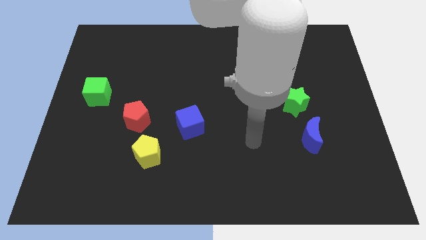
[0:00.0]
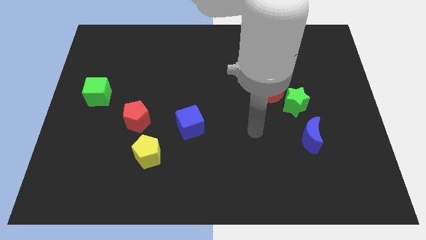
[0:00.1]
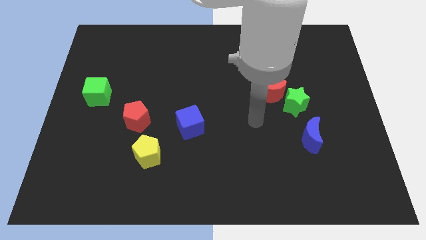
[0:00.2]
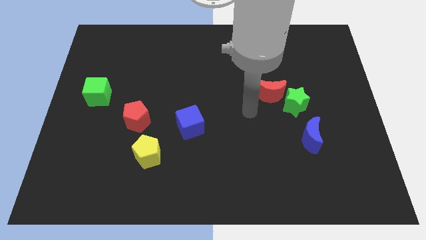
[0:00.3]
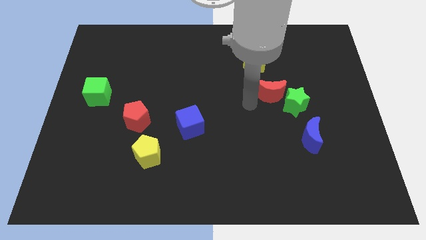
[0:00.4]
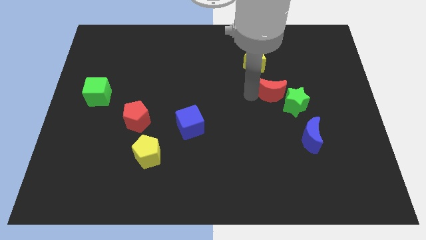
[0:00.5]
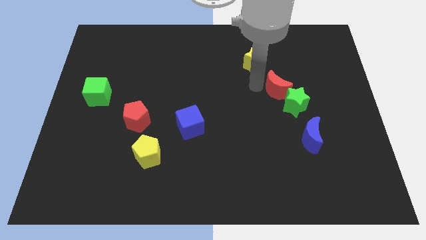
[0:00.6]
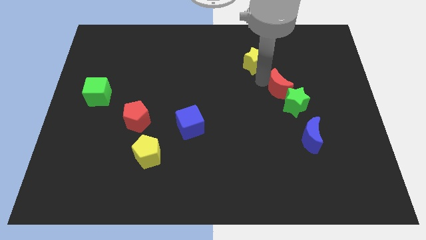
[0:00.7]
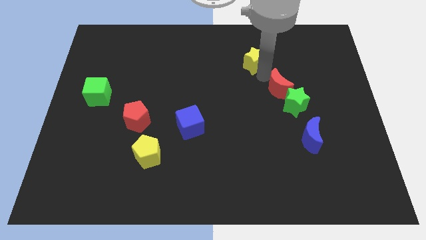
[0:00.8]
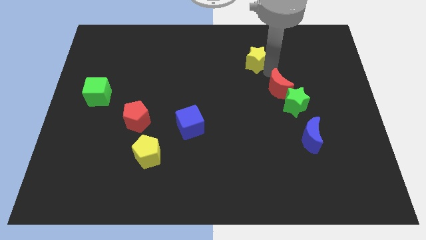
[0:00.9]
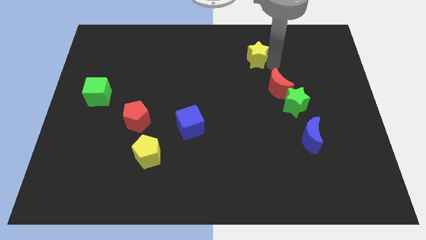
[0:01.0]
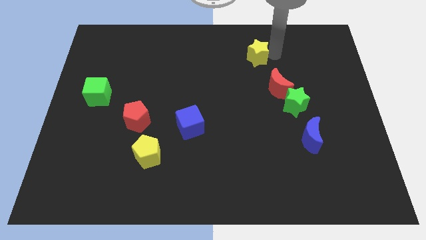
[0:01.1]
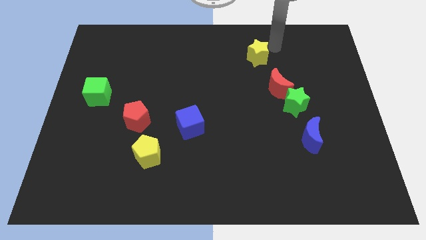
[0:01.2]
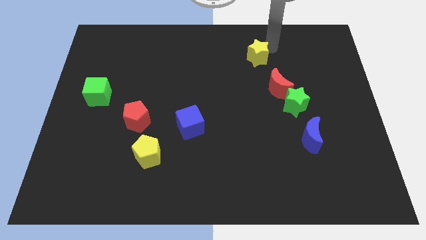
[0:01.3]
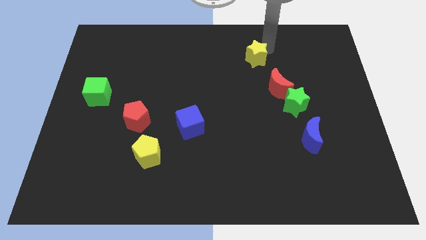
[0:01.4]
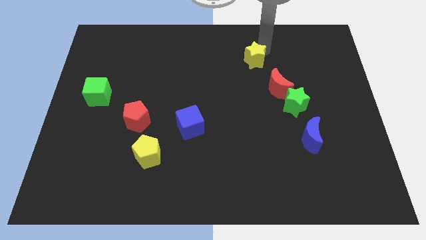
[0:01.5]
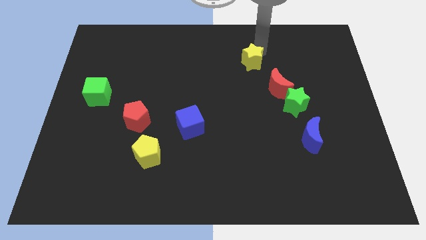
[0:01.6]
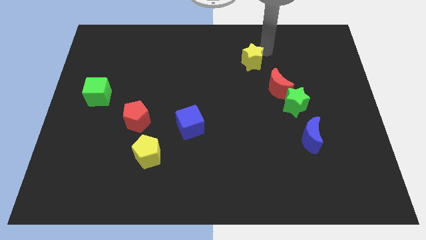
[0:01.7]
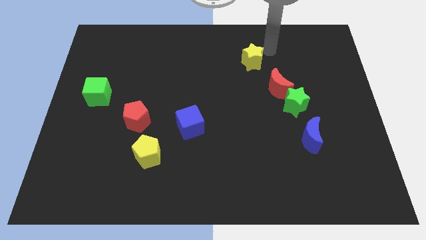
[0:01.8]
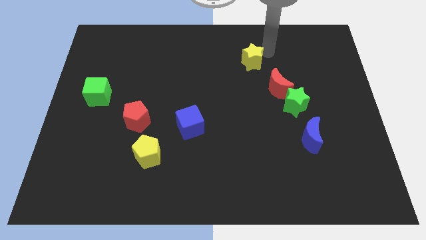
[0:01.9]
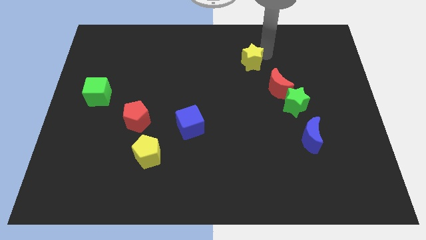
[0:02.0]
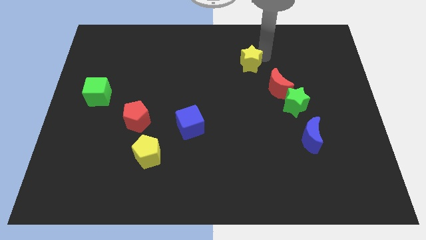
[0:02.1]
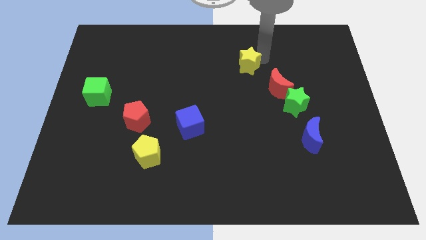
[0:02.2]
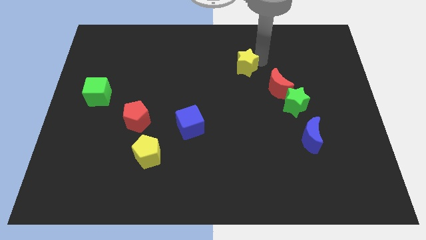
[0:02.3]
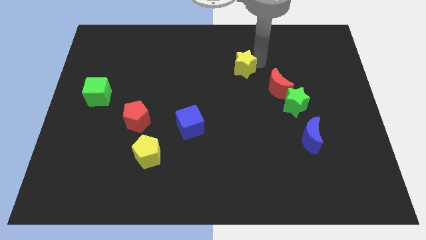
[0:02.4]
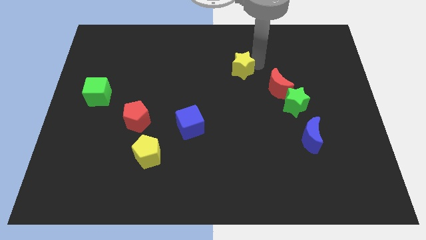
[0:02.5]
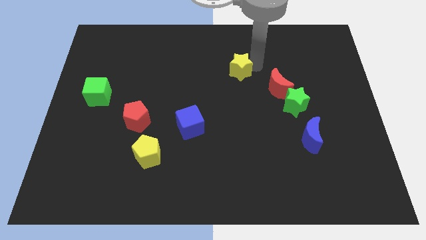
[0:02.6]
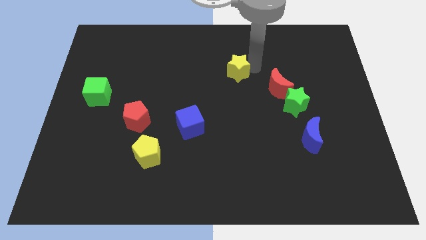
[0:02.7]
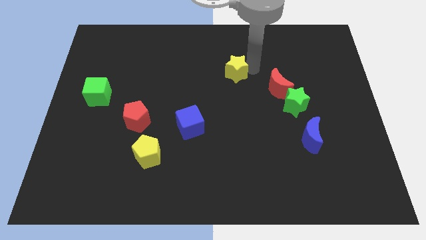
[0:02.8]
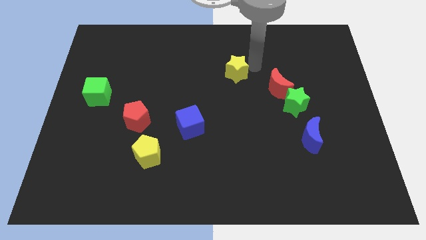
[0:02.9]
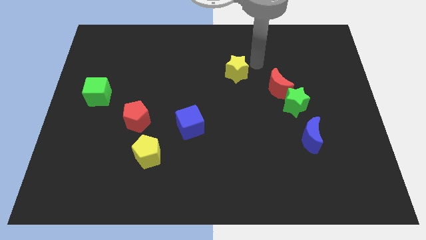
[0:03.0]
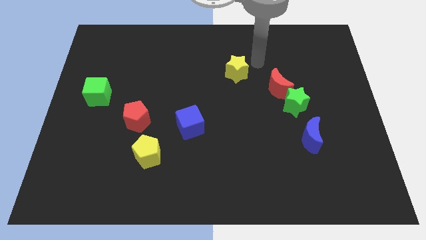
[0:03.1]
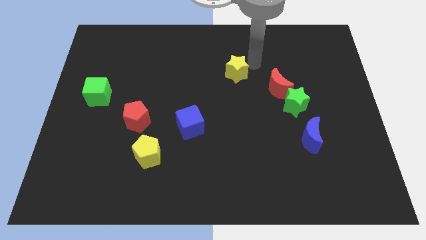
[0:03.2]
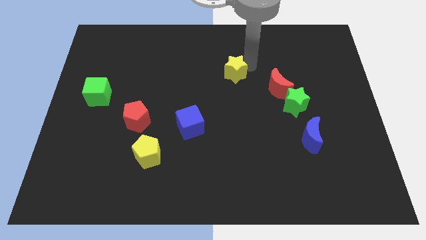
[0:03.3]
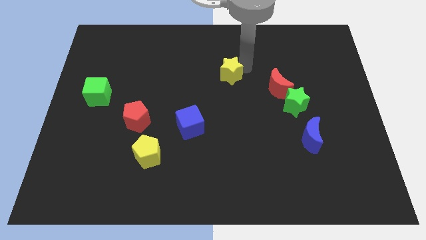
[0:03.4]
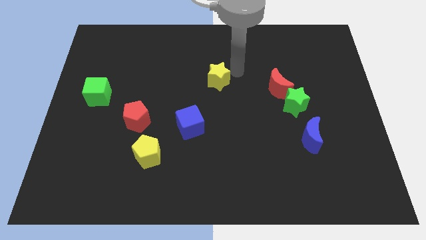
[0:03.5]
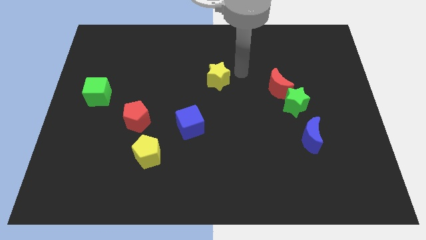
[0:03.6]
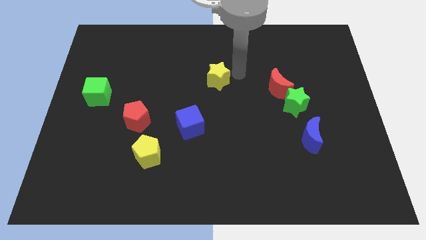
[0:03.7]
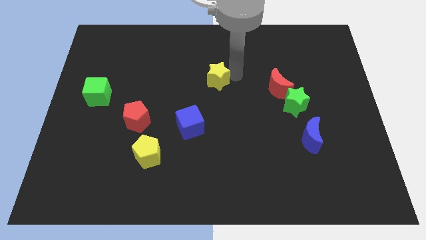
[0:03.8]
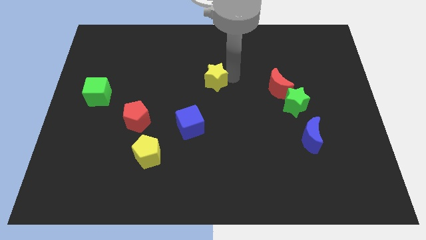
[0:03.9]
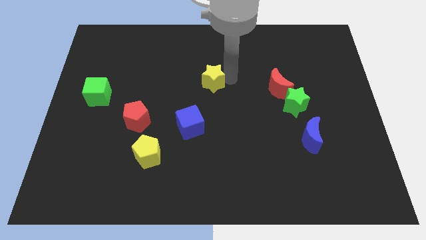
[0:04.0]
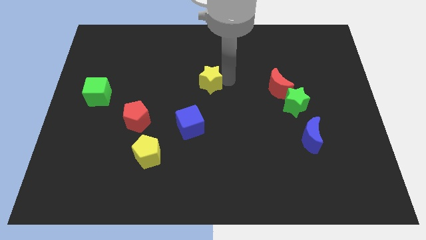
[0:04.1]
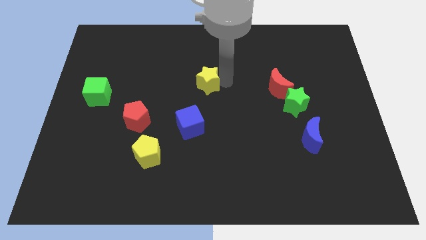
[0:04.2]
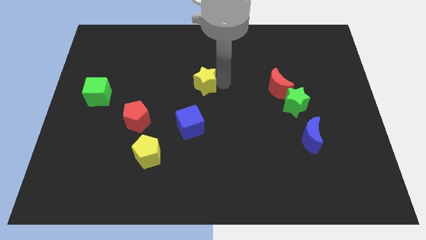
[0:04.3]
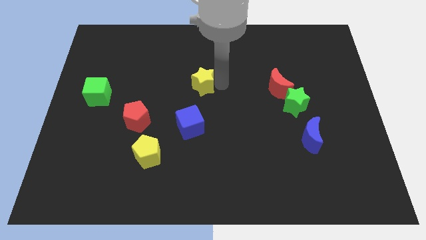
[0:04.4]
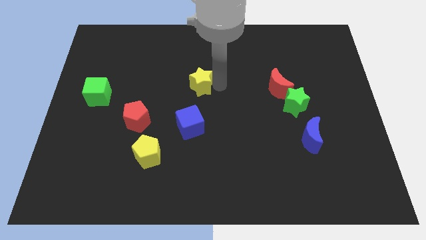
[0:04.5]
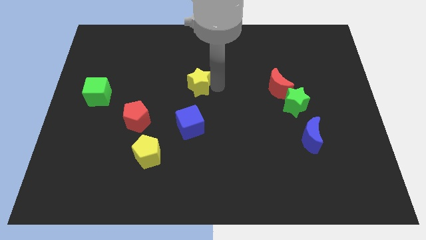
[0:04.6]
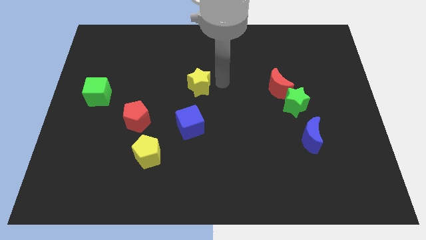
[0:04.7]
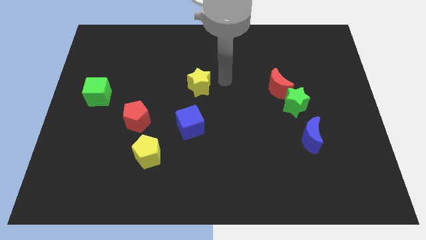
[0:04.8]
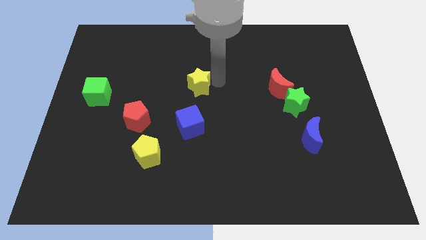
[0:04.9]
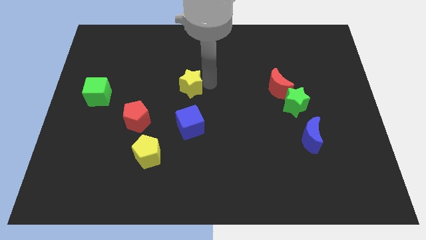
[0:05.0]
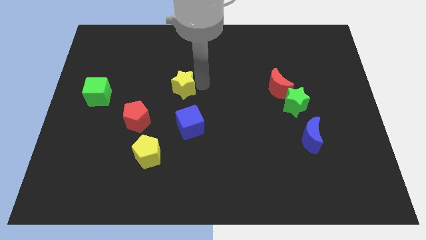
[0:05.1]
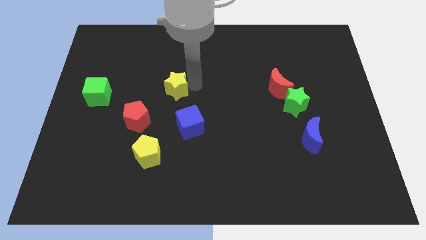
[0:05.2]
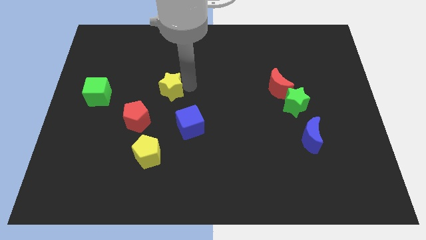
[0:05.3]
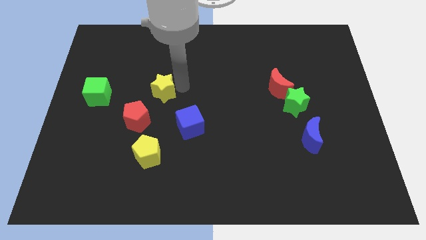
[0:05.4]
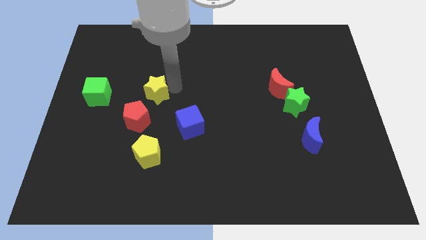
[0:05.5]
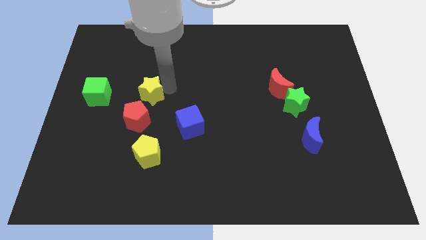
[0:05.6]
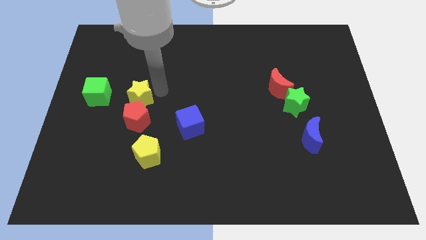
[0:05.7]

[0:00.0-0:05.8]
slide the yellow star to the top left side of the red pentagon

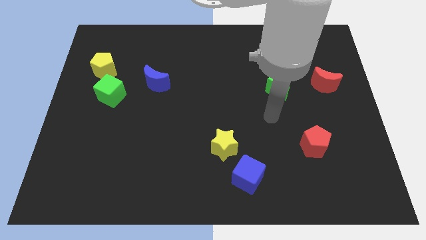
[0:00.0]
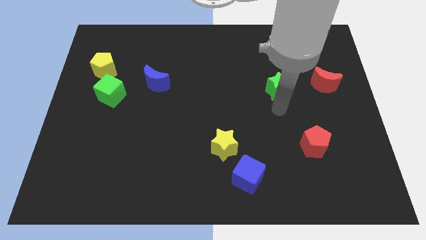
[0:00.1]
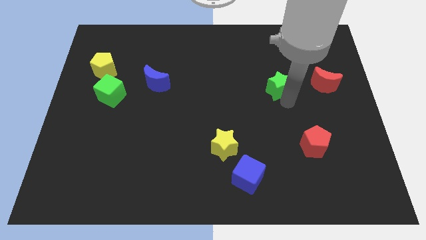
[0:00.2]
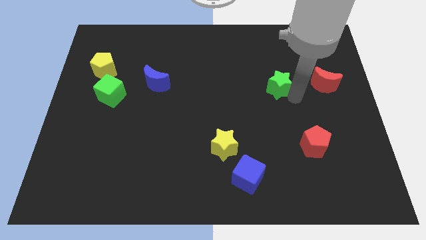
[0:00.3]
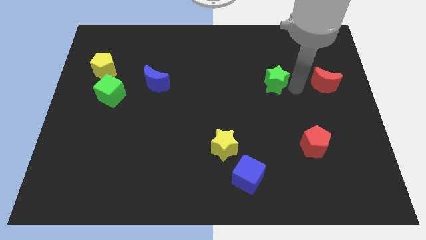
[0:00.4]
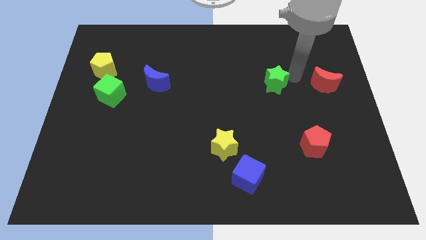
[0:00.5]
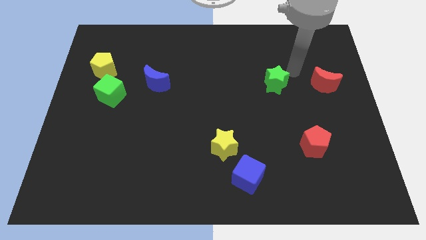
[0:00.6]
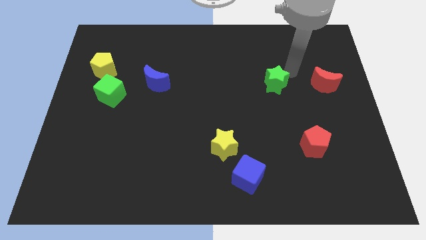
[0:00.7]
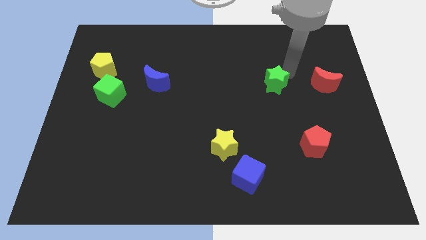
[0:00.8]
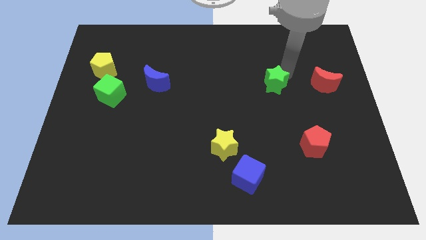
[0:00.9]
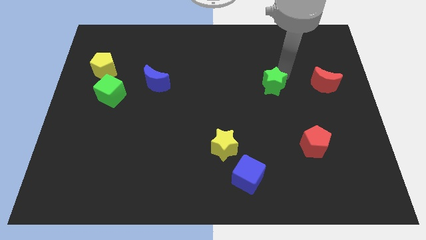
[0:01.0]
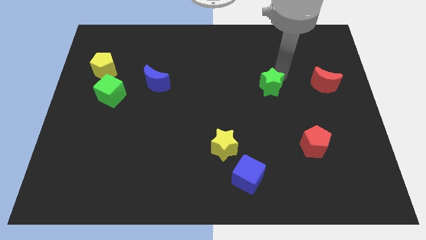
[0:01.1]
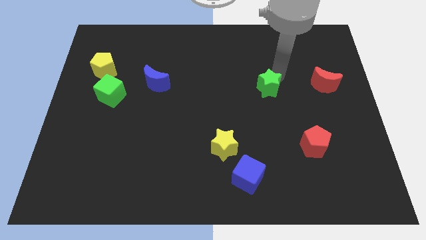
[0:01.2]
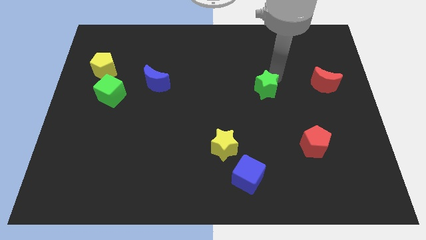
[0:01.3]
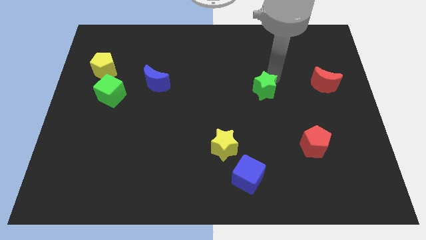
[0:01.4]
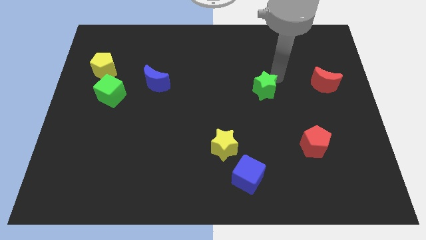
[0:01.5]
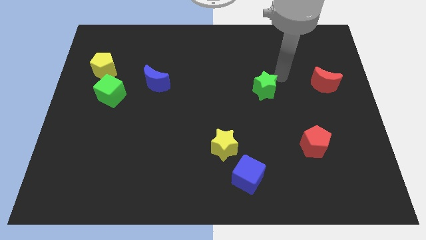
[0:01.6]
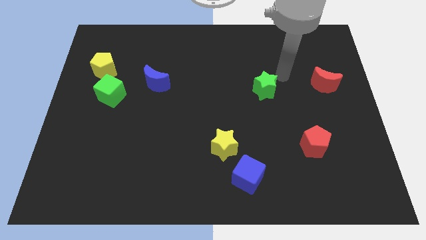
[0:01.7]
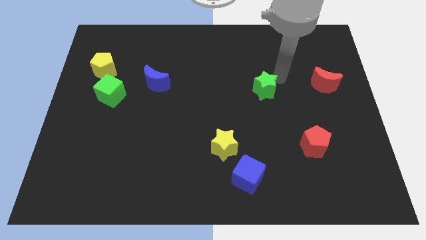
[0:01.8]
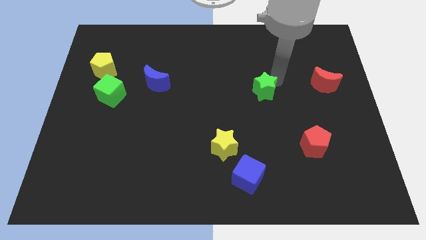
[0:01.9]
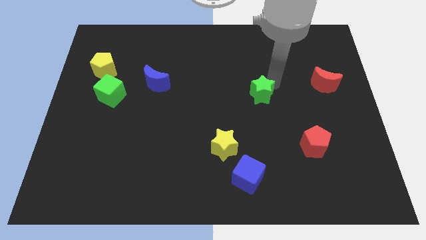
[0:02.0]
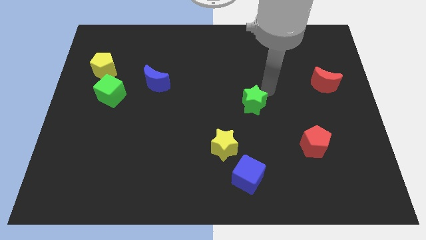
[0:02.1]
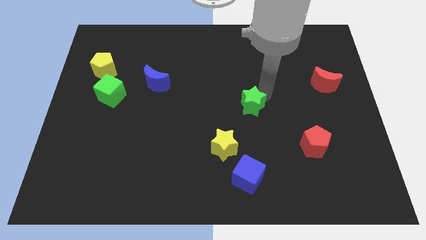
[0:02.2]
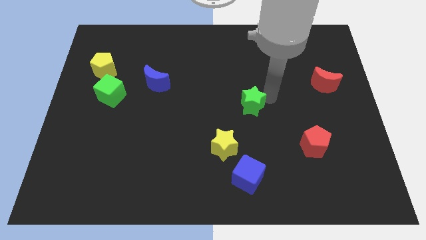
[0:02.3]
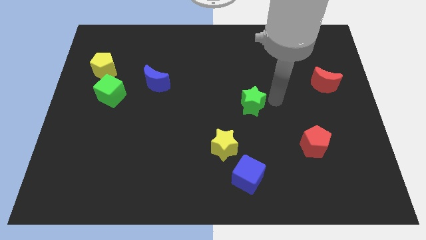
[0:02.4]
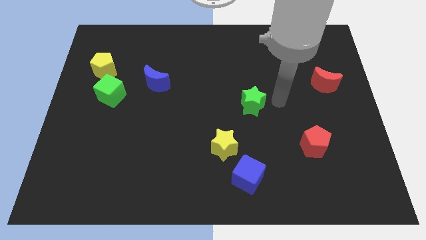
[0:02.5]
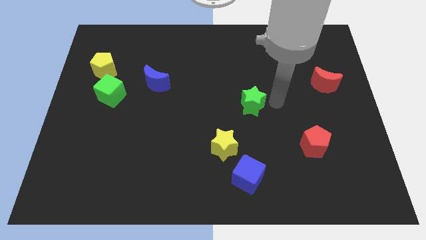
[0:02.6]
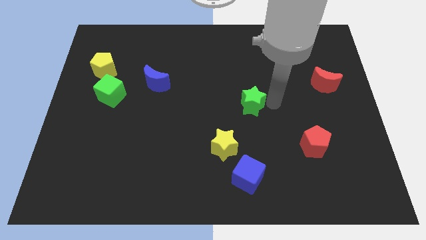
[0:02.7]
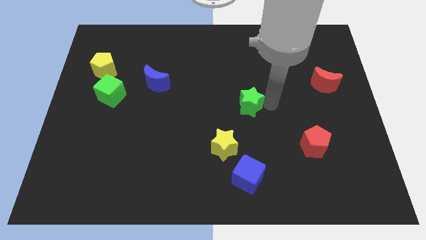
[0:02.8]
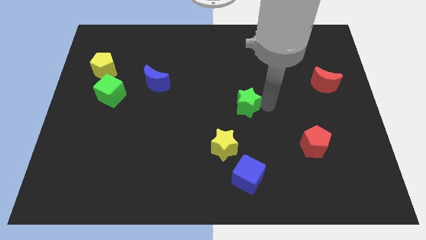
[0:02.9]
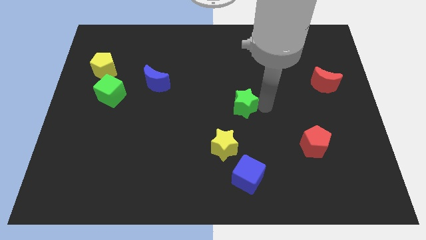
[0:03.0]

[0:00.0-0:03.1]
move the green star to the top side of the yellow star
